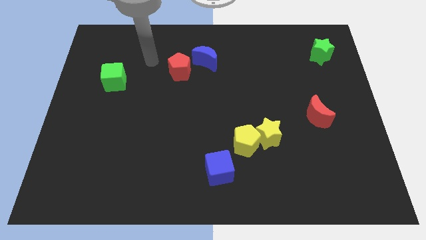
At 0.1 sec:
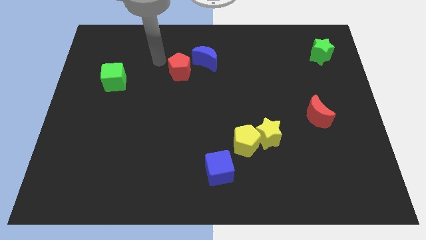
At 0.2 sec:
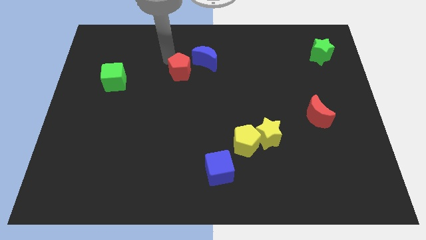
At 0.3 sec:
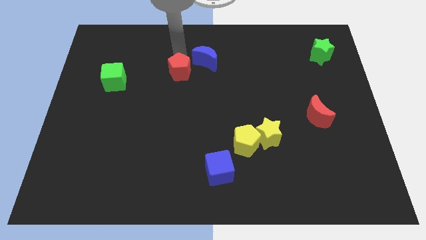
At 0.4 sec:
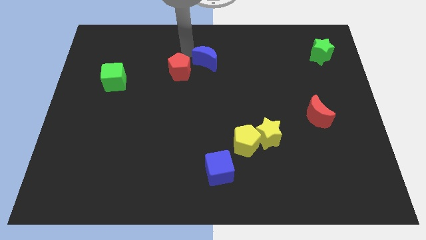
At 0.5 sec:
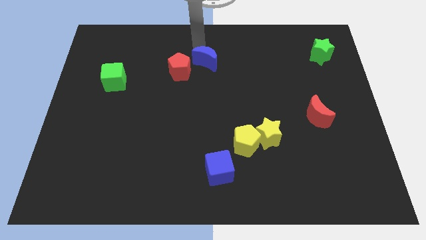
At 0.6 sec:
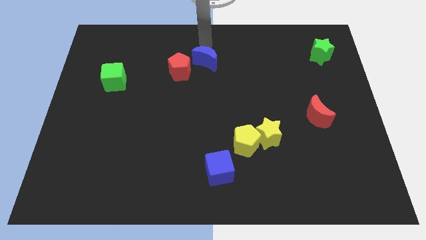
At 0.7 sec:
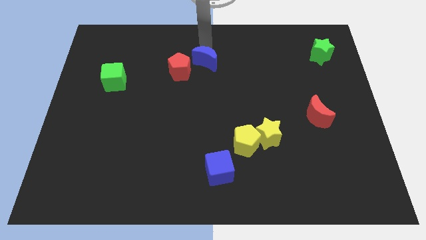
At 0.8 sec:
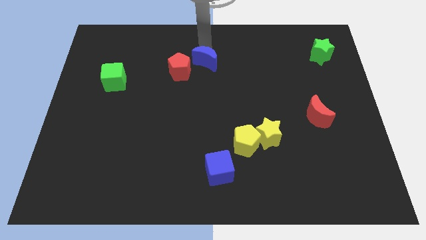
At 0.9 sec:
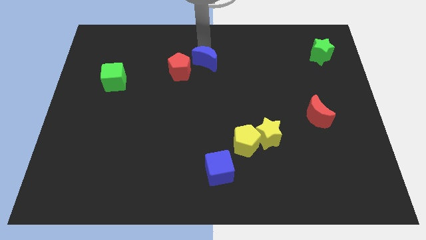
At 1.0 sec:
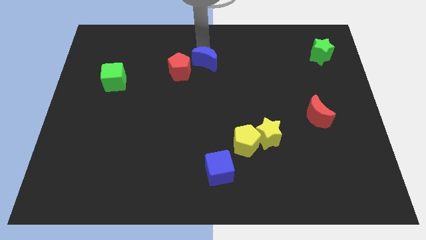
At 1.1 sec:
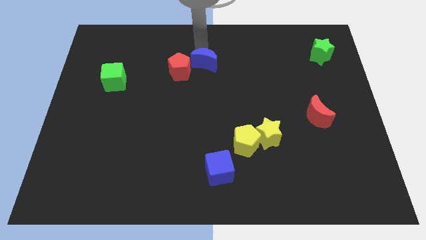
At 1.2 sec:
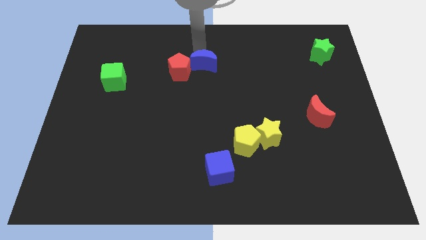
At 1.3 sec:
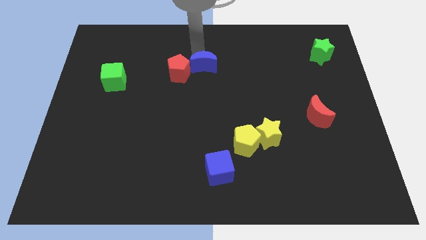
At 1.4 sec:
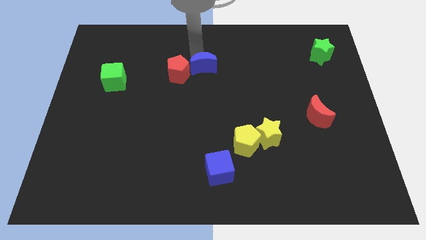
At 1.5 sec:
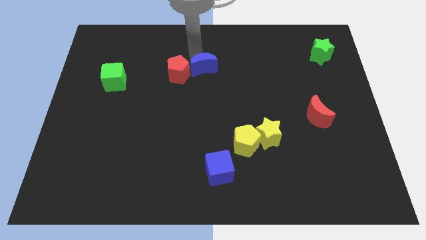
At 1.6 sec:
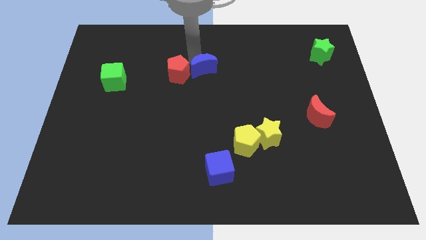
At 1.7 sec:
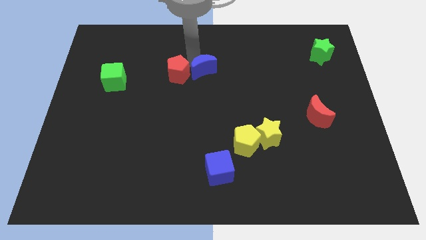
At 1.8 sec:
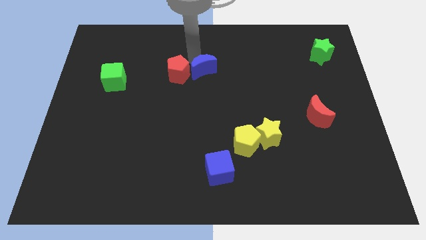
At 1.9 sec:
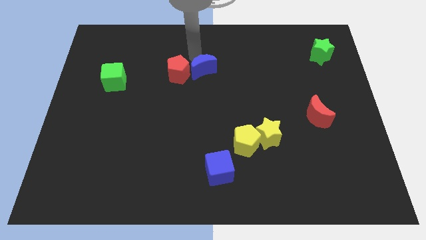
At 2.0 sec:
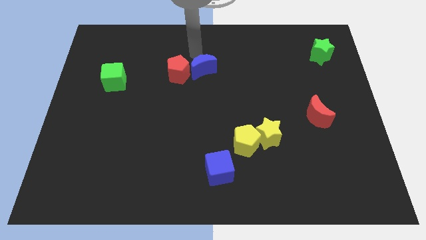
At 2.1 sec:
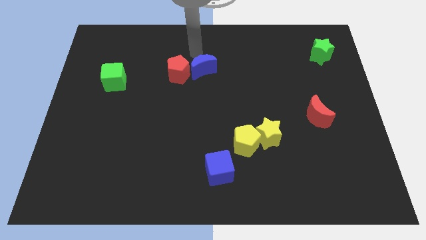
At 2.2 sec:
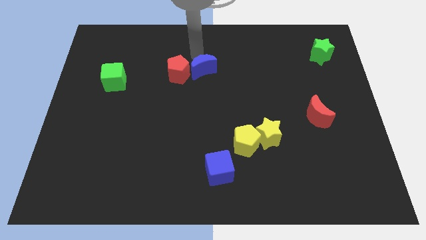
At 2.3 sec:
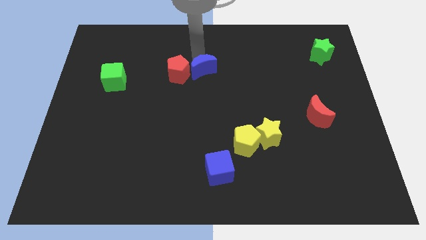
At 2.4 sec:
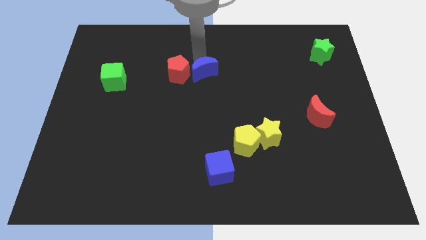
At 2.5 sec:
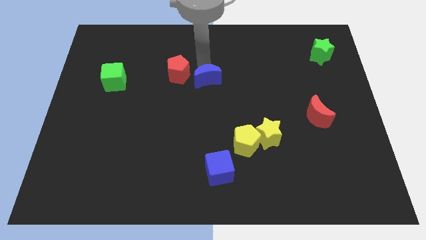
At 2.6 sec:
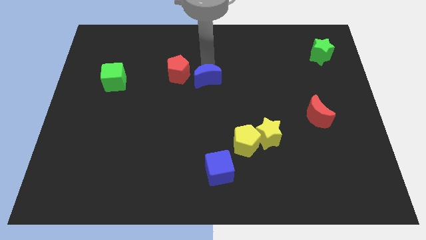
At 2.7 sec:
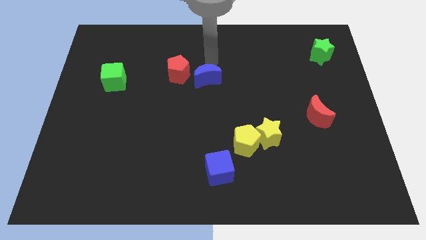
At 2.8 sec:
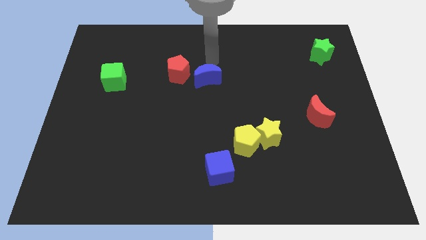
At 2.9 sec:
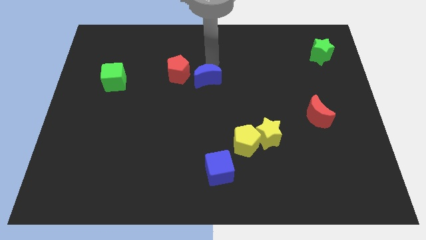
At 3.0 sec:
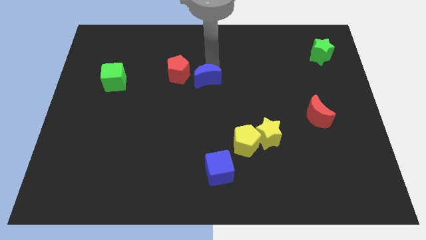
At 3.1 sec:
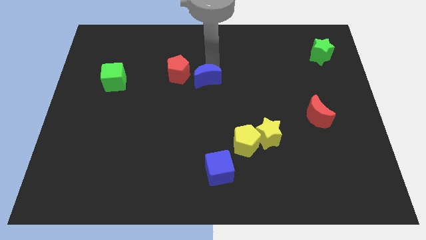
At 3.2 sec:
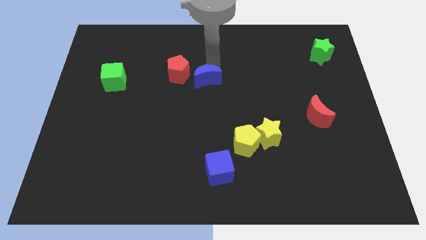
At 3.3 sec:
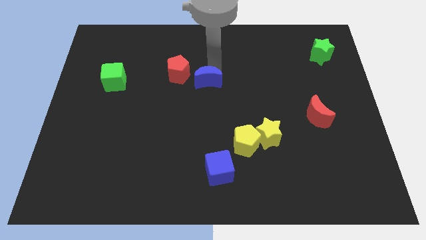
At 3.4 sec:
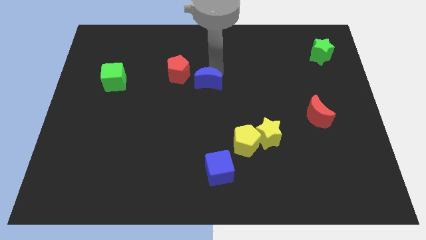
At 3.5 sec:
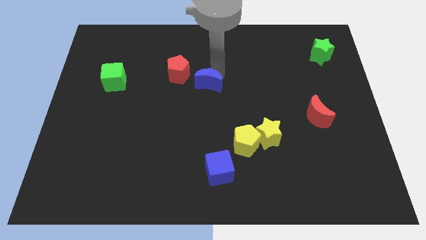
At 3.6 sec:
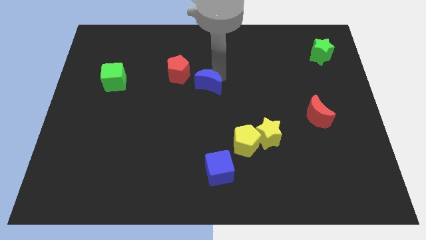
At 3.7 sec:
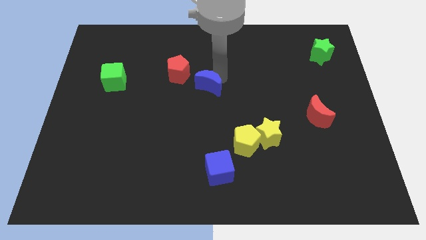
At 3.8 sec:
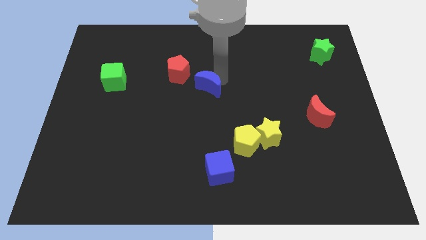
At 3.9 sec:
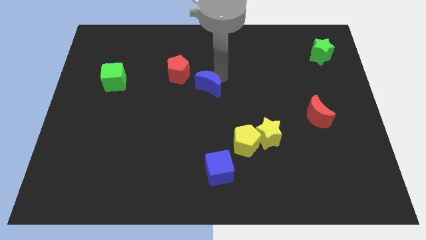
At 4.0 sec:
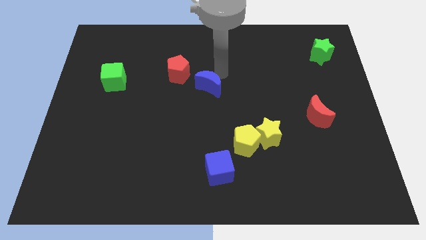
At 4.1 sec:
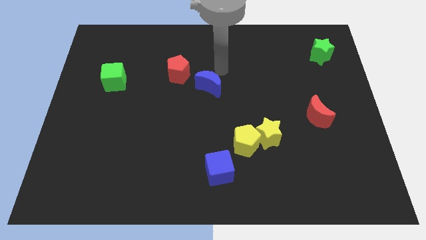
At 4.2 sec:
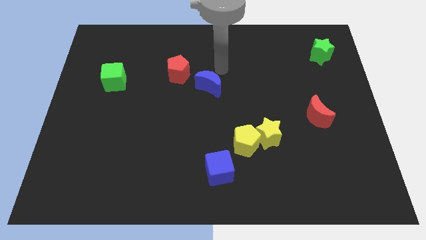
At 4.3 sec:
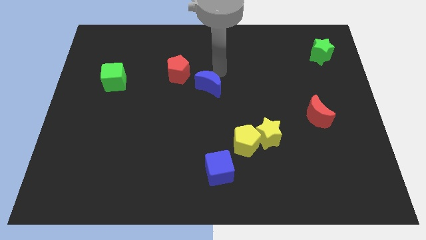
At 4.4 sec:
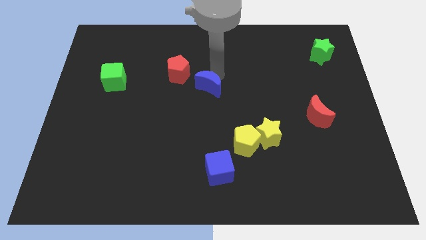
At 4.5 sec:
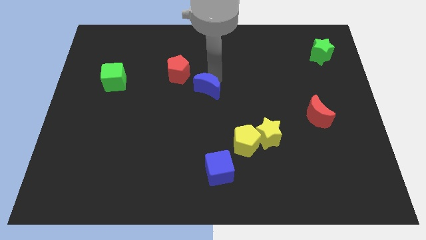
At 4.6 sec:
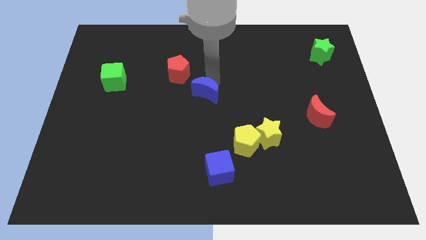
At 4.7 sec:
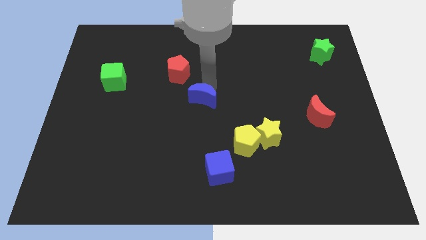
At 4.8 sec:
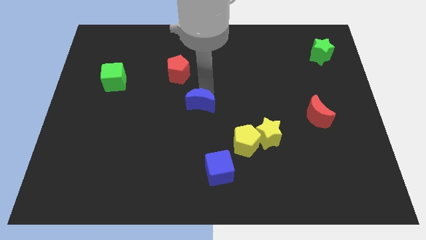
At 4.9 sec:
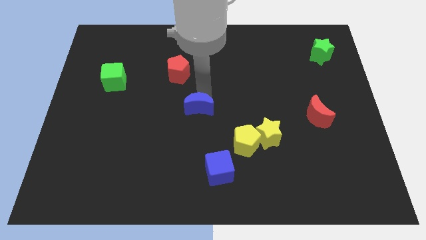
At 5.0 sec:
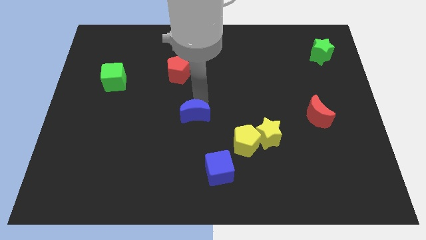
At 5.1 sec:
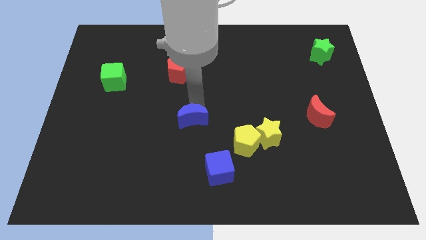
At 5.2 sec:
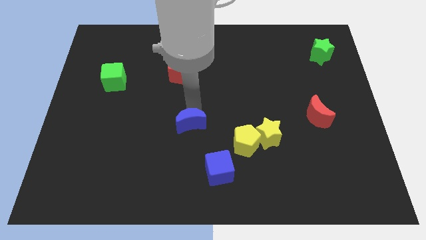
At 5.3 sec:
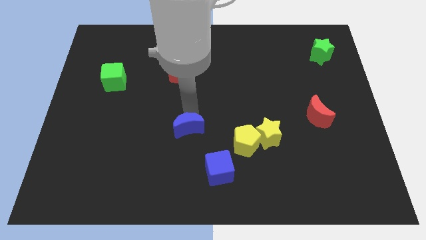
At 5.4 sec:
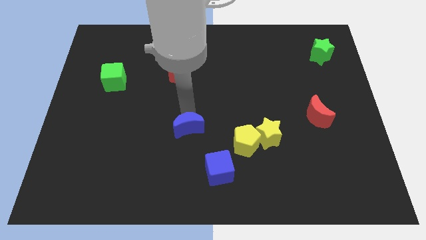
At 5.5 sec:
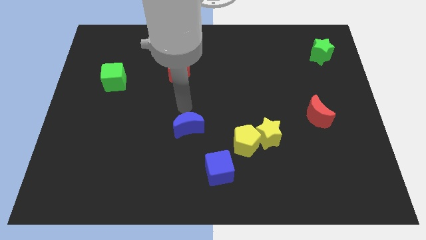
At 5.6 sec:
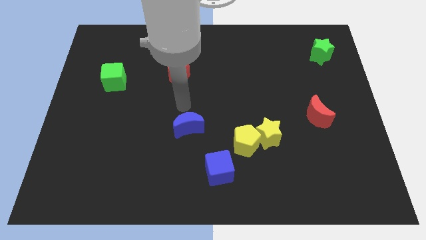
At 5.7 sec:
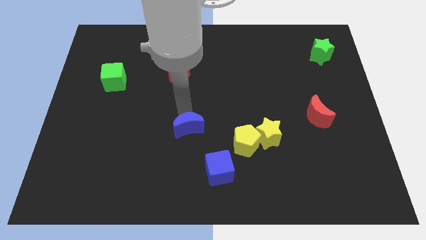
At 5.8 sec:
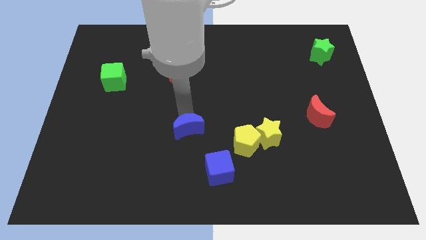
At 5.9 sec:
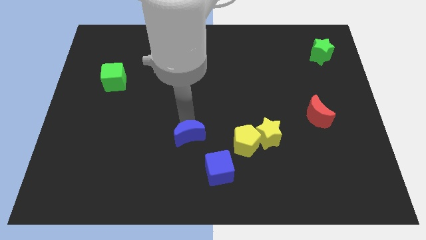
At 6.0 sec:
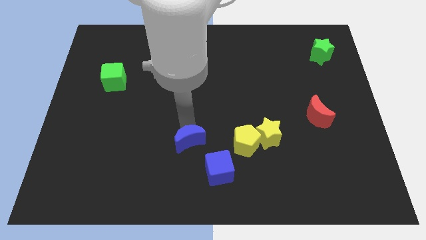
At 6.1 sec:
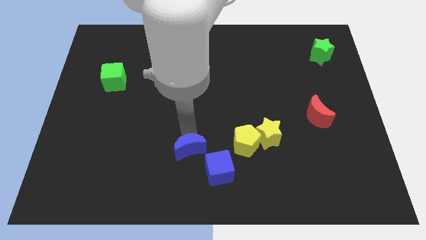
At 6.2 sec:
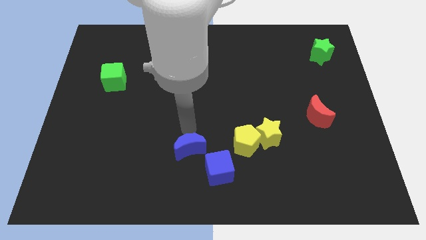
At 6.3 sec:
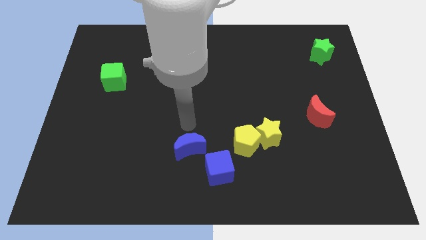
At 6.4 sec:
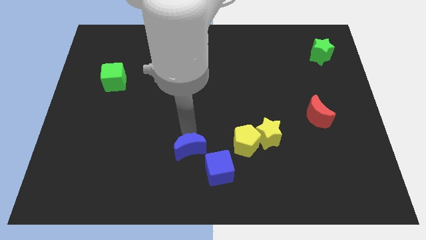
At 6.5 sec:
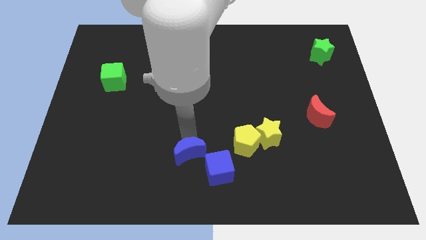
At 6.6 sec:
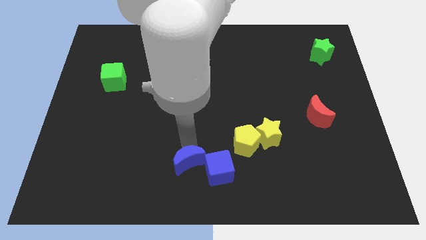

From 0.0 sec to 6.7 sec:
put the blue moon to the bottom side
